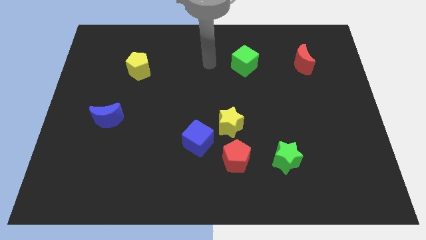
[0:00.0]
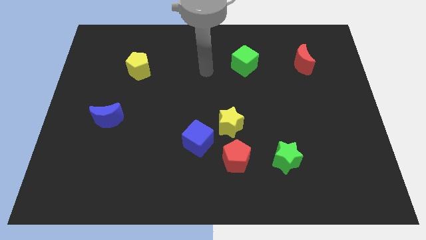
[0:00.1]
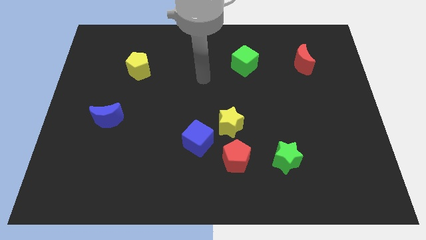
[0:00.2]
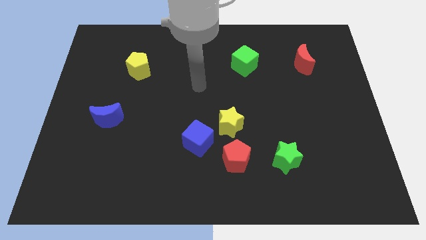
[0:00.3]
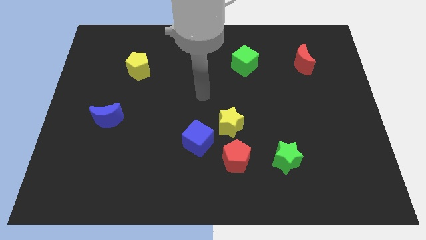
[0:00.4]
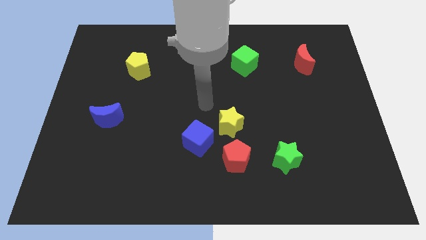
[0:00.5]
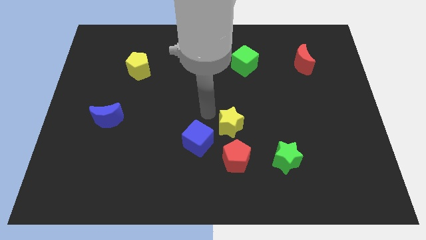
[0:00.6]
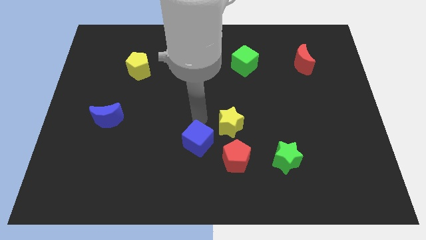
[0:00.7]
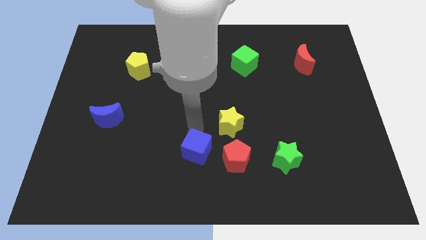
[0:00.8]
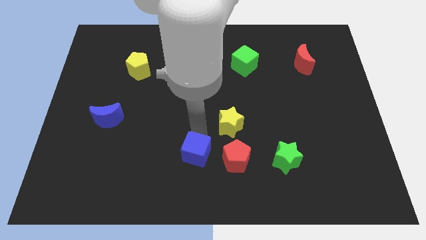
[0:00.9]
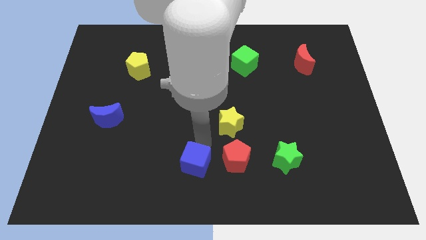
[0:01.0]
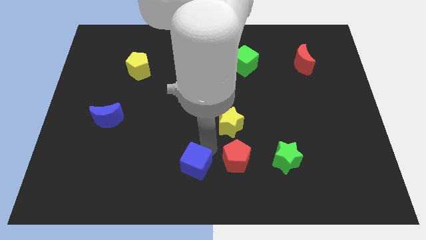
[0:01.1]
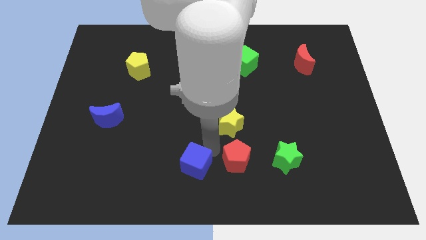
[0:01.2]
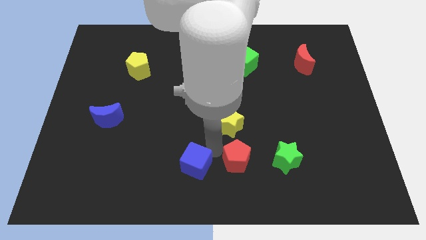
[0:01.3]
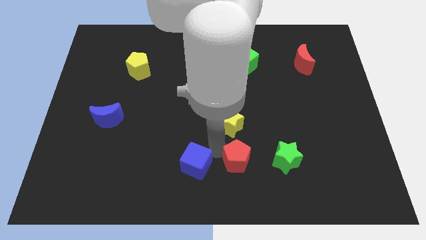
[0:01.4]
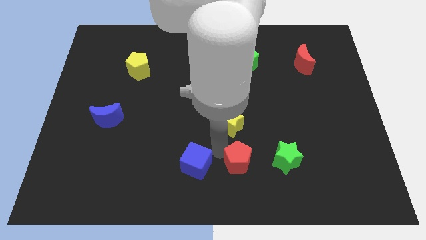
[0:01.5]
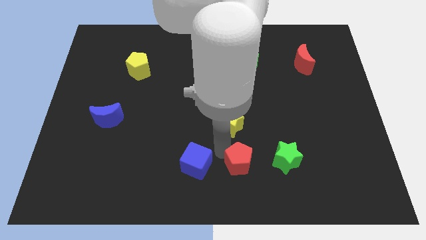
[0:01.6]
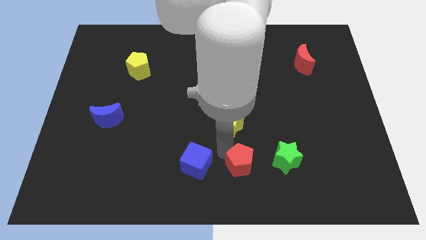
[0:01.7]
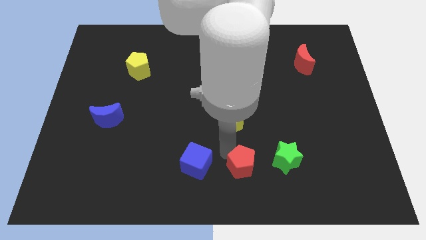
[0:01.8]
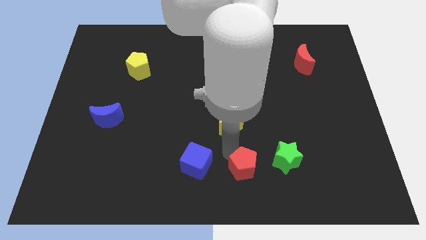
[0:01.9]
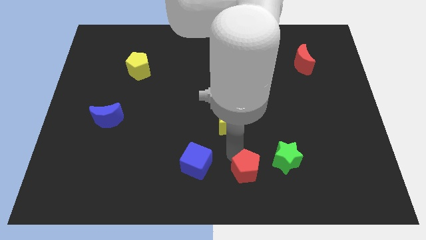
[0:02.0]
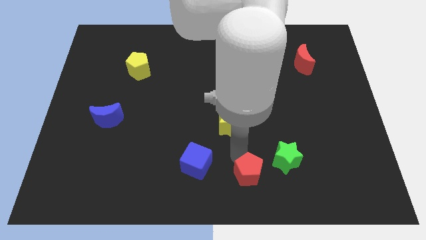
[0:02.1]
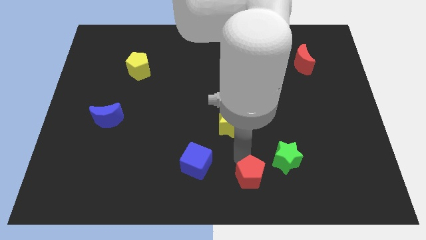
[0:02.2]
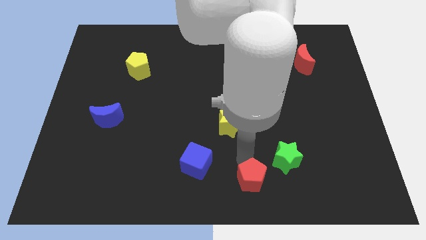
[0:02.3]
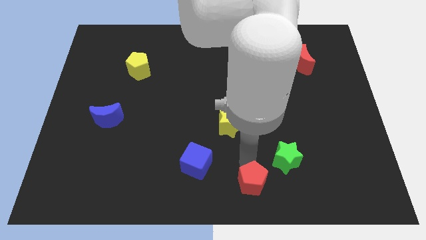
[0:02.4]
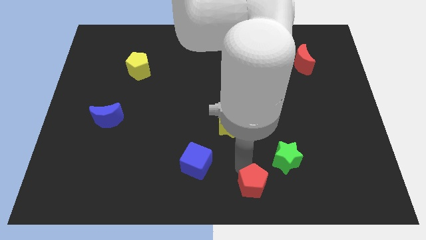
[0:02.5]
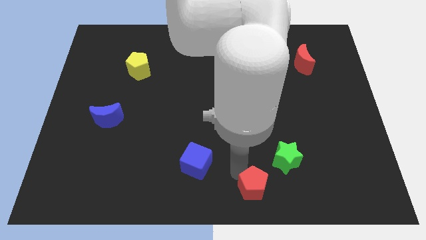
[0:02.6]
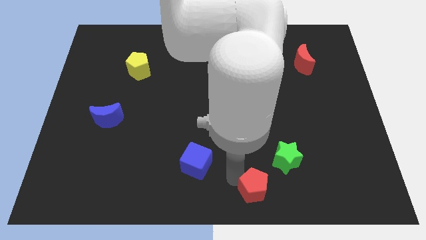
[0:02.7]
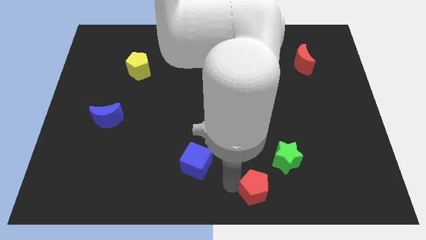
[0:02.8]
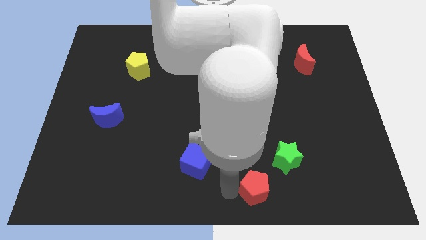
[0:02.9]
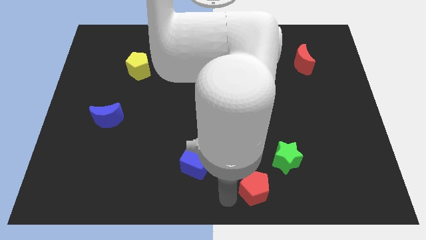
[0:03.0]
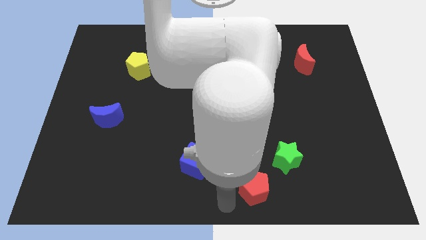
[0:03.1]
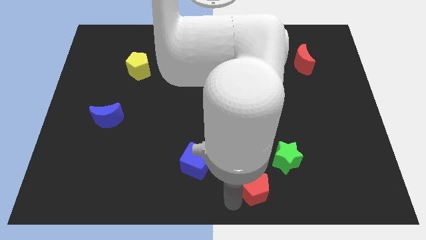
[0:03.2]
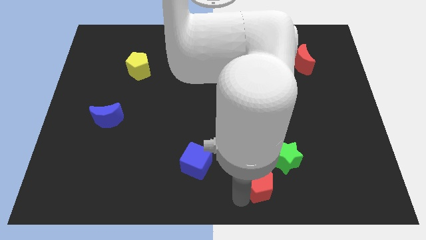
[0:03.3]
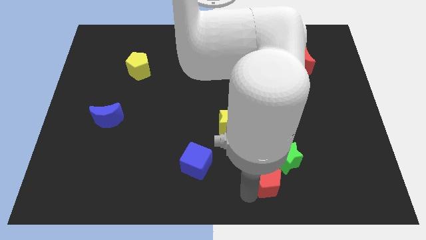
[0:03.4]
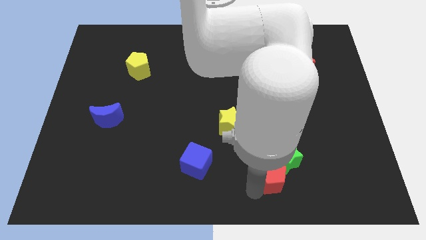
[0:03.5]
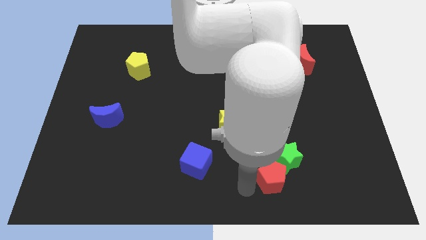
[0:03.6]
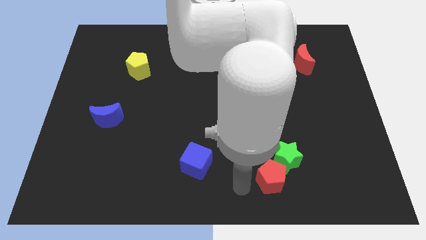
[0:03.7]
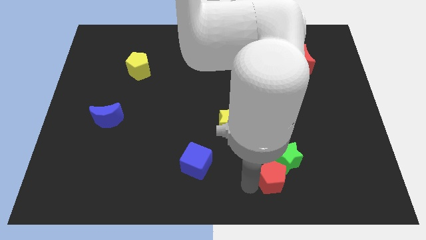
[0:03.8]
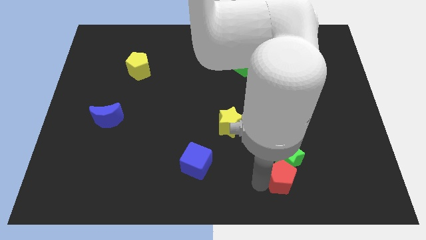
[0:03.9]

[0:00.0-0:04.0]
slightly slide the red pentagon to the right

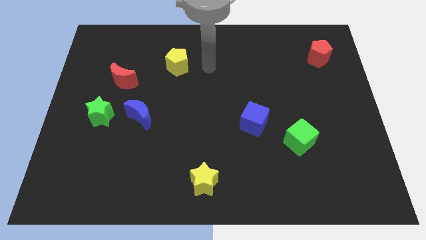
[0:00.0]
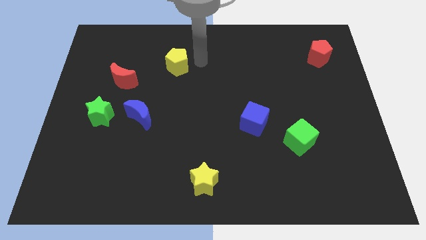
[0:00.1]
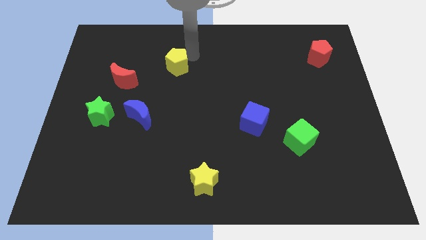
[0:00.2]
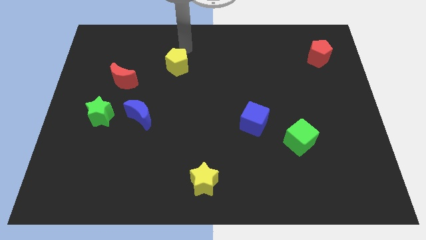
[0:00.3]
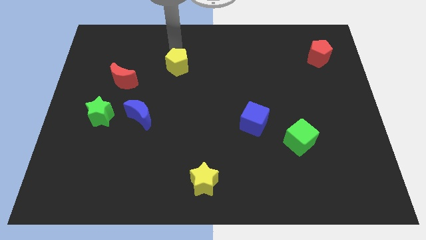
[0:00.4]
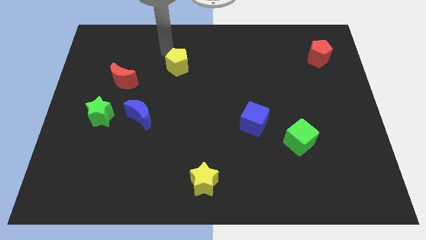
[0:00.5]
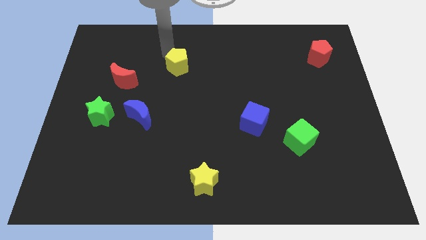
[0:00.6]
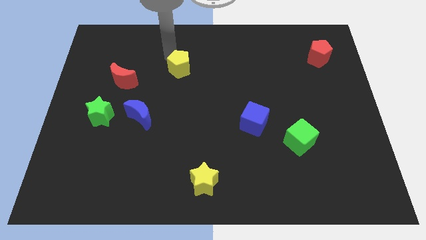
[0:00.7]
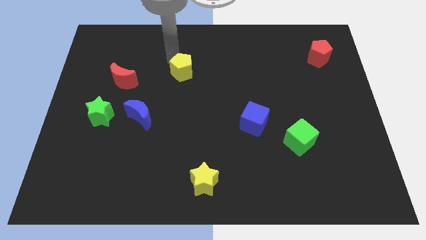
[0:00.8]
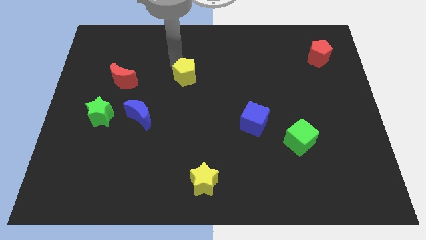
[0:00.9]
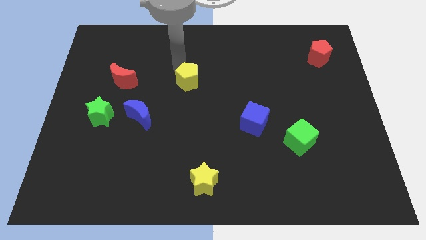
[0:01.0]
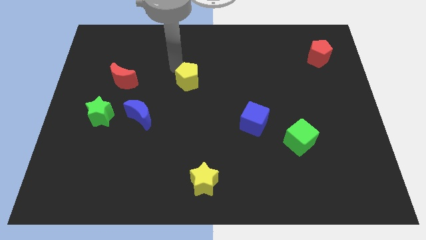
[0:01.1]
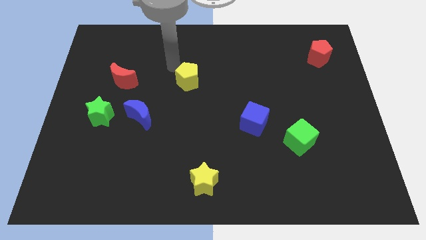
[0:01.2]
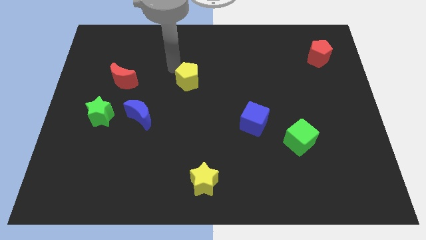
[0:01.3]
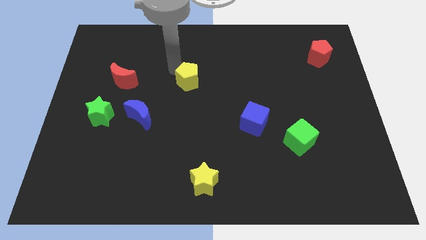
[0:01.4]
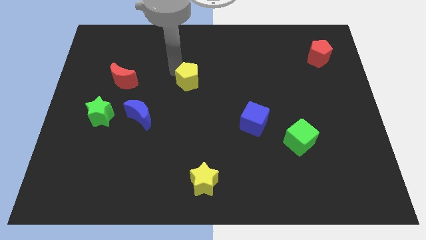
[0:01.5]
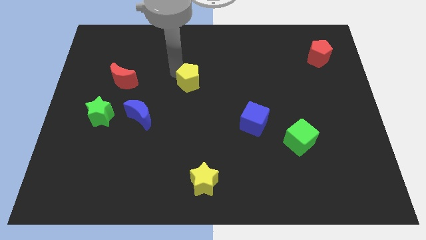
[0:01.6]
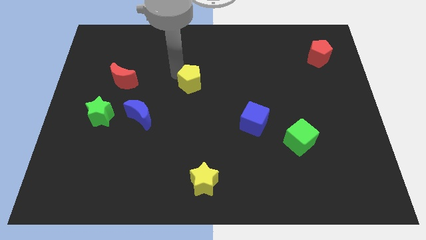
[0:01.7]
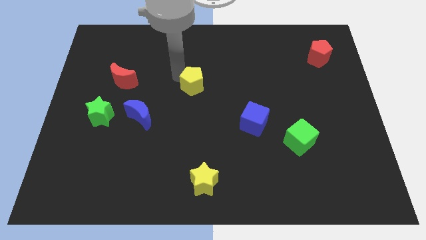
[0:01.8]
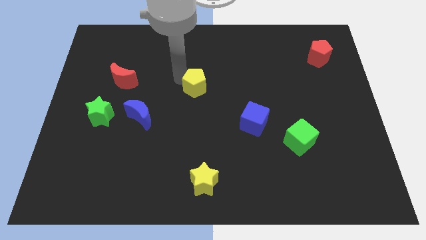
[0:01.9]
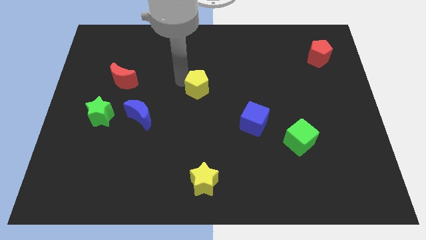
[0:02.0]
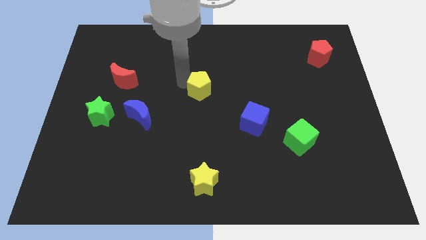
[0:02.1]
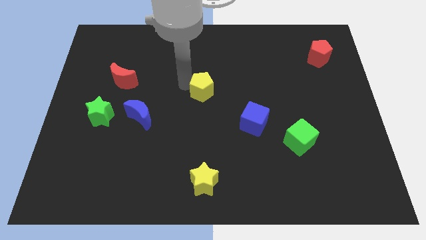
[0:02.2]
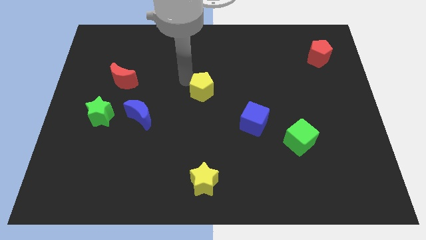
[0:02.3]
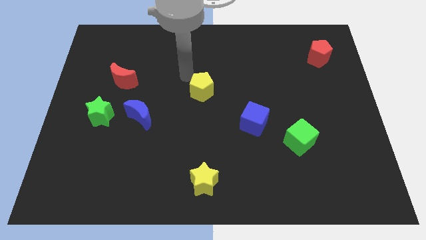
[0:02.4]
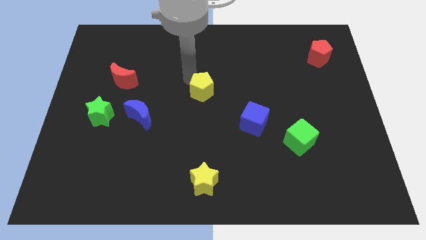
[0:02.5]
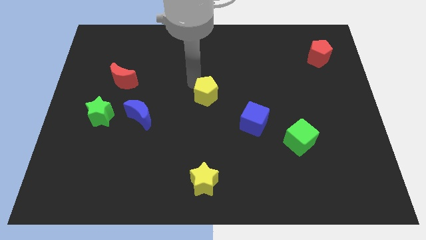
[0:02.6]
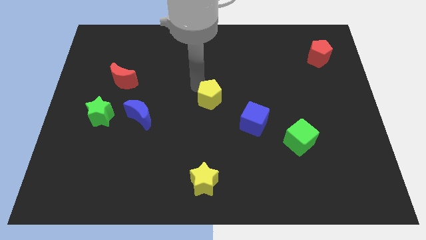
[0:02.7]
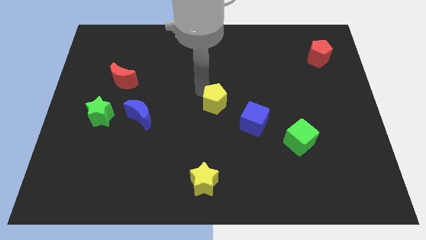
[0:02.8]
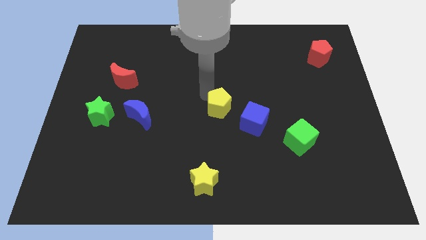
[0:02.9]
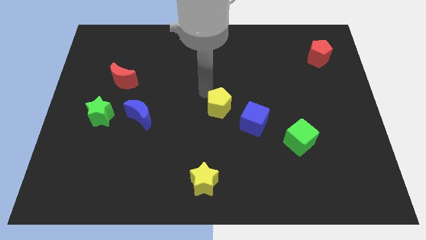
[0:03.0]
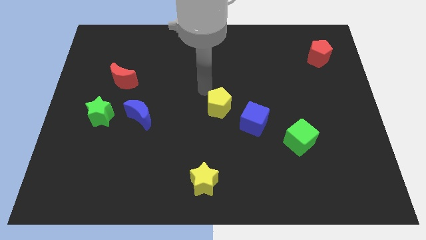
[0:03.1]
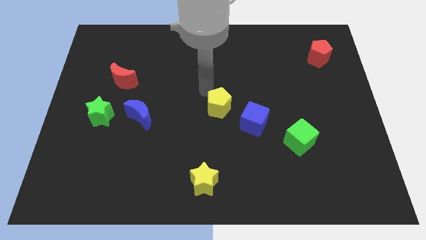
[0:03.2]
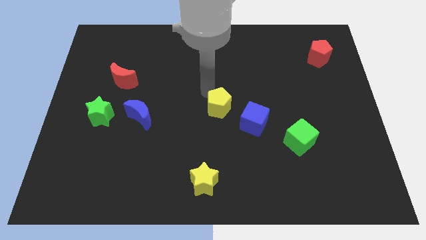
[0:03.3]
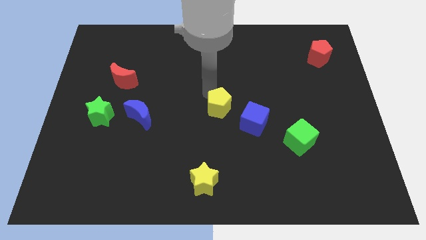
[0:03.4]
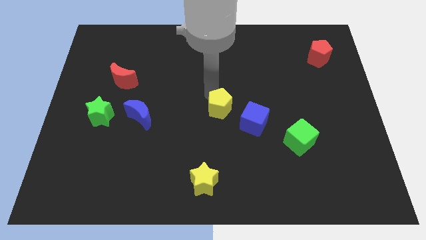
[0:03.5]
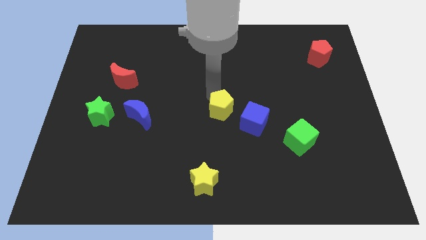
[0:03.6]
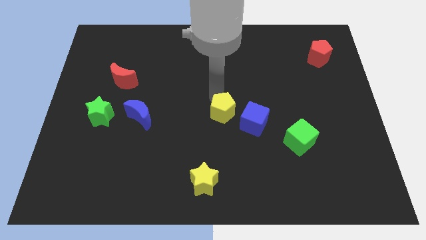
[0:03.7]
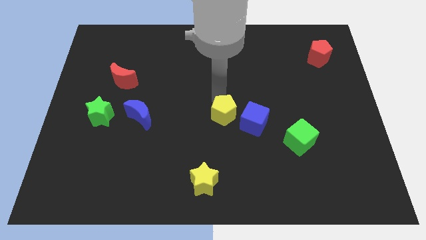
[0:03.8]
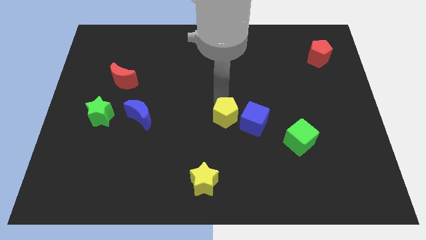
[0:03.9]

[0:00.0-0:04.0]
move the yellow pentagon down and then right

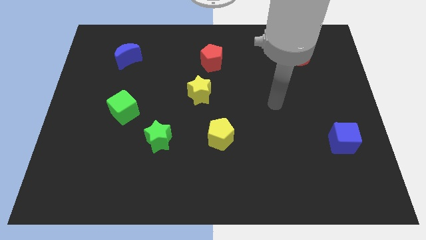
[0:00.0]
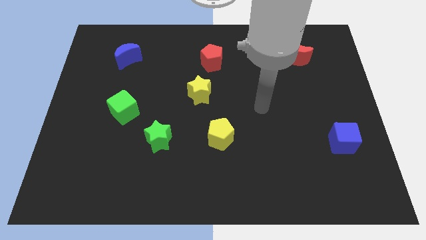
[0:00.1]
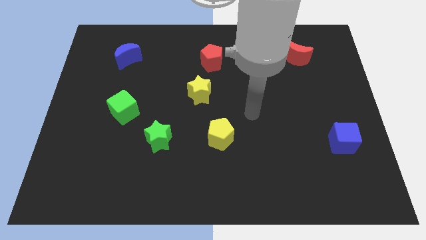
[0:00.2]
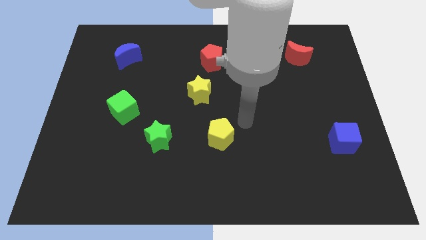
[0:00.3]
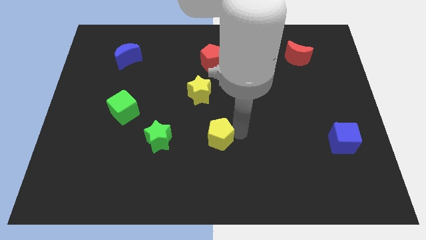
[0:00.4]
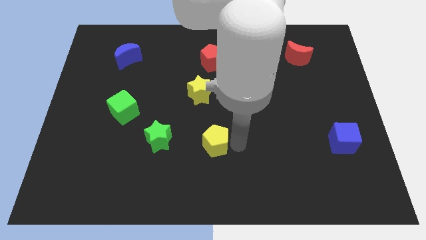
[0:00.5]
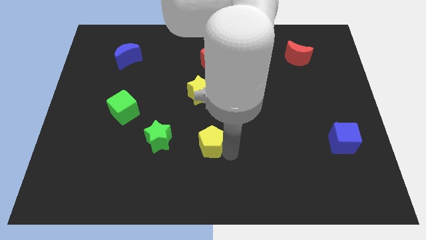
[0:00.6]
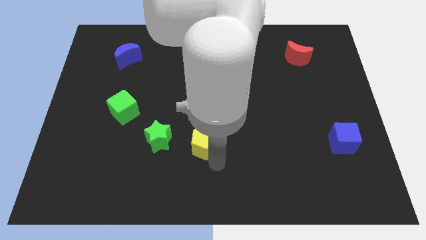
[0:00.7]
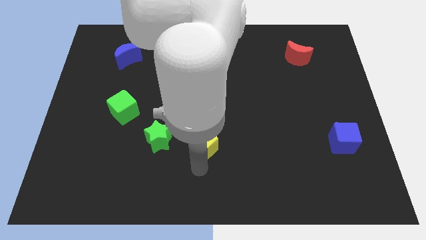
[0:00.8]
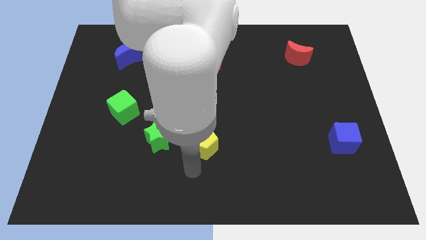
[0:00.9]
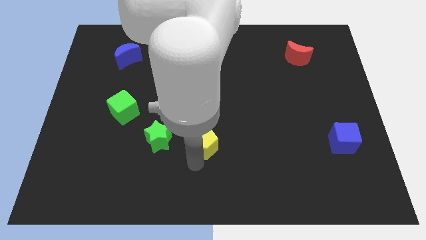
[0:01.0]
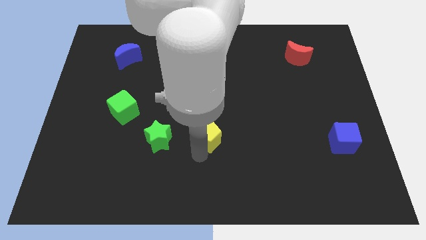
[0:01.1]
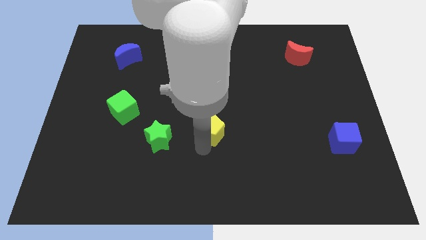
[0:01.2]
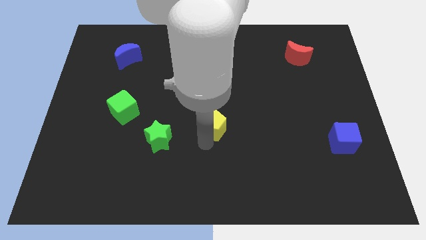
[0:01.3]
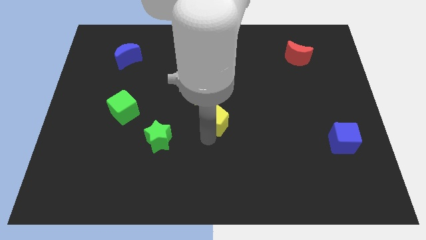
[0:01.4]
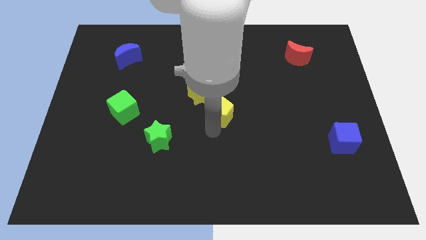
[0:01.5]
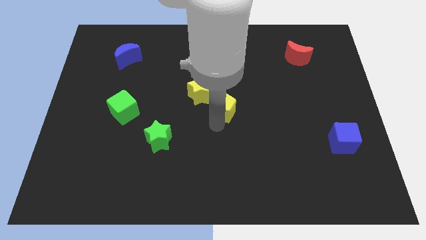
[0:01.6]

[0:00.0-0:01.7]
push the yellow pentagon slightly up
